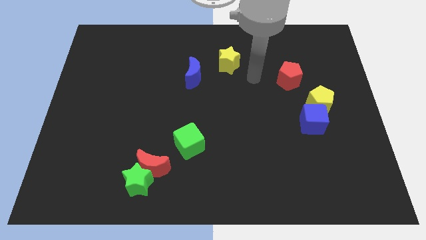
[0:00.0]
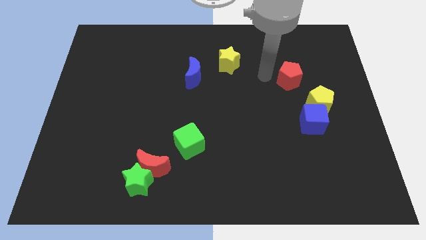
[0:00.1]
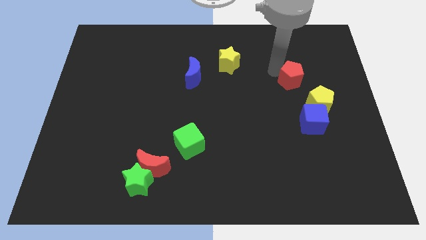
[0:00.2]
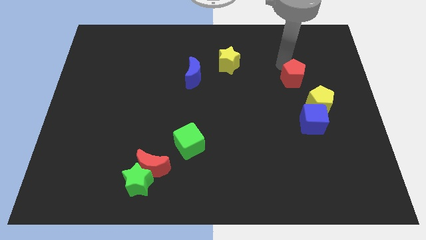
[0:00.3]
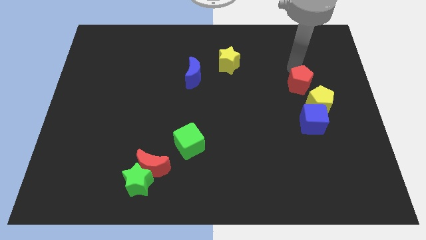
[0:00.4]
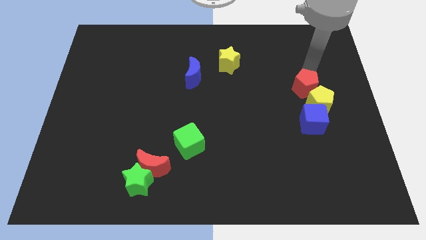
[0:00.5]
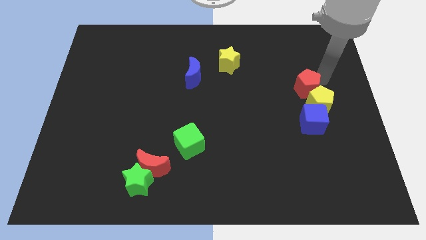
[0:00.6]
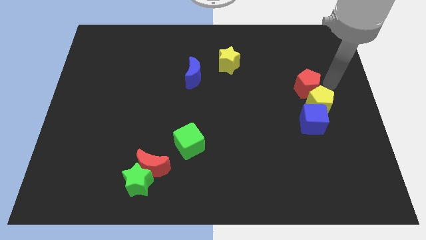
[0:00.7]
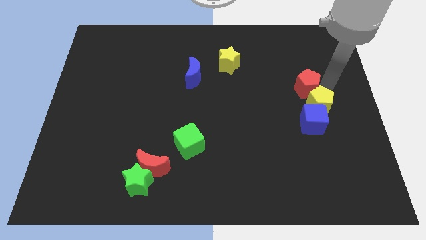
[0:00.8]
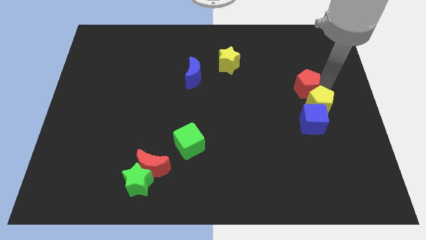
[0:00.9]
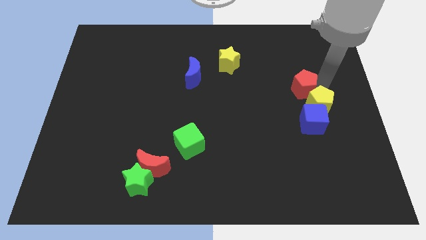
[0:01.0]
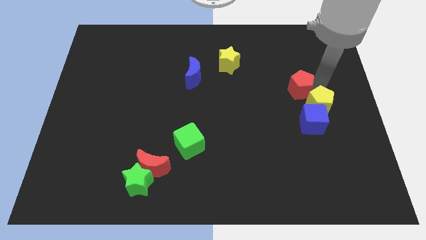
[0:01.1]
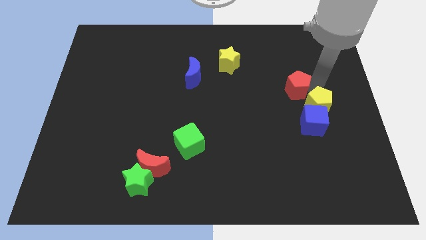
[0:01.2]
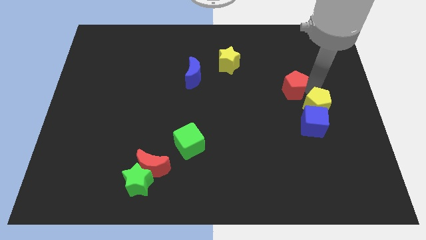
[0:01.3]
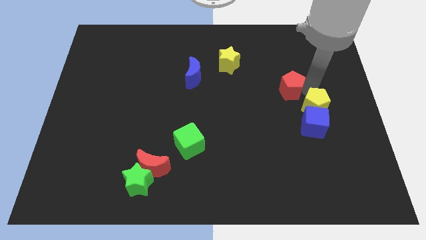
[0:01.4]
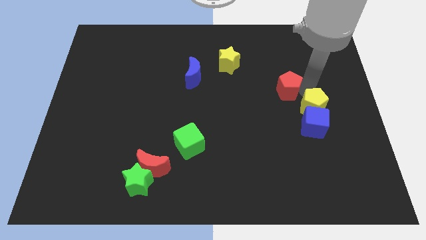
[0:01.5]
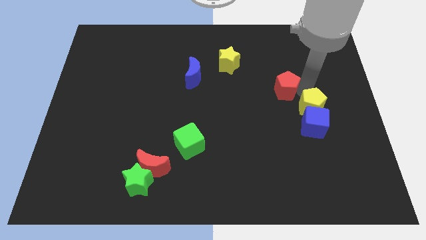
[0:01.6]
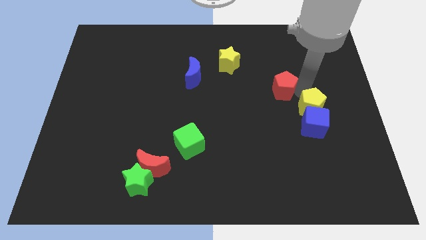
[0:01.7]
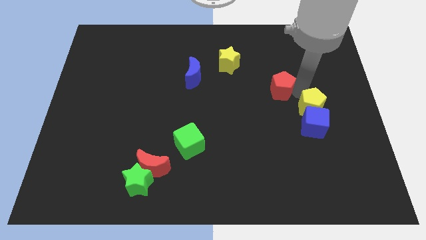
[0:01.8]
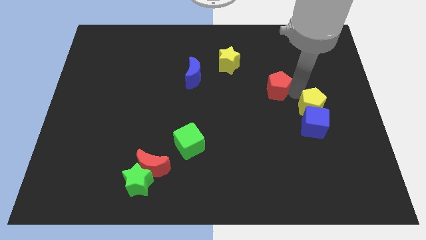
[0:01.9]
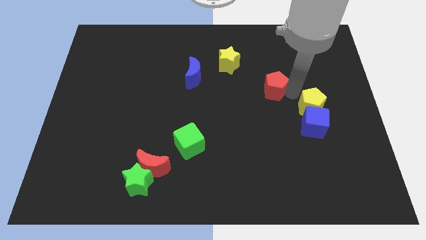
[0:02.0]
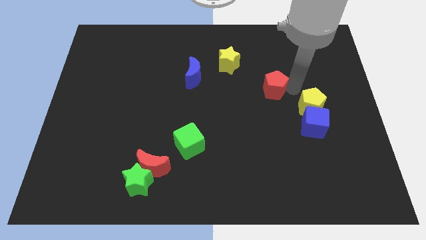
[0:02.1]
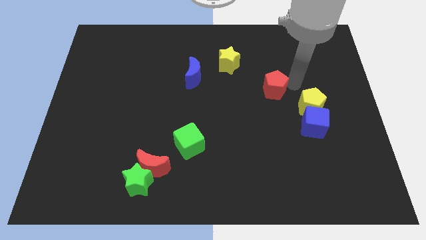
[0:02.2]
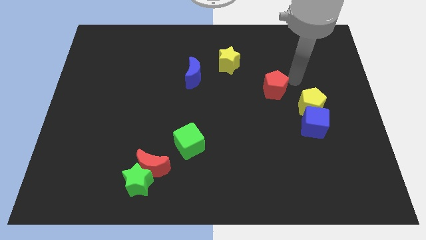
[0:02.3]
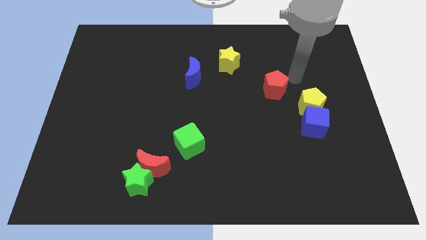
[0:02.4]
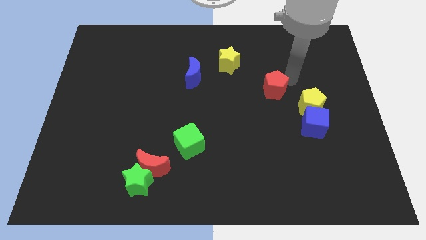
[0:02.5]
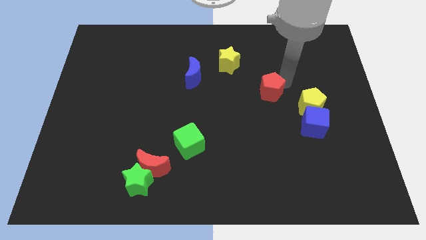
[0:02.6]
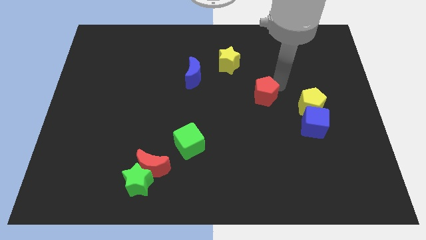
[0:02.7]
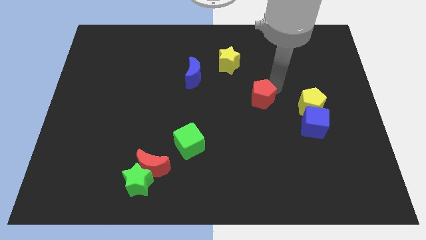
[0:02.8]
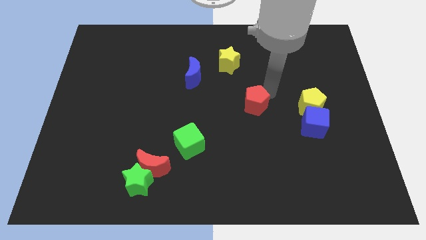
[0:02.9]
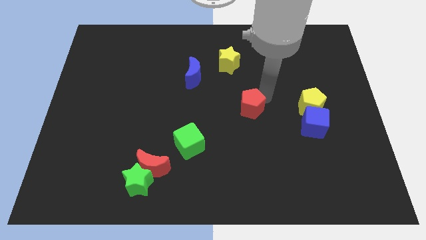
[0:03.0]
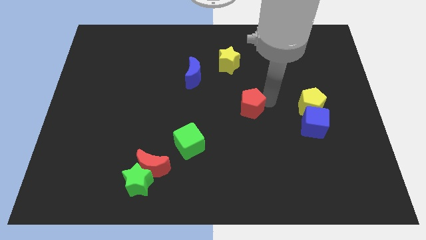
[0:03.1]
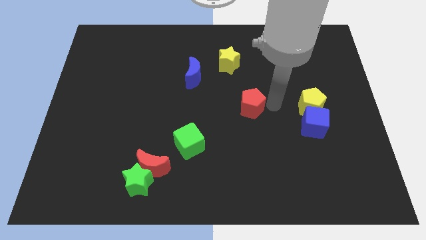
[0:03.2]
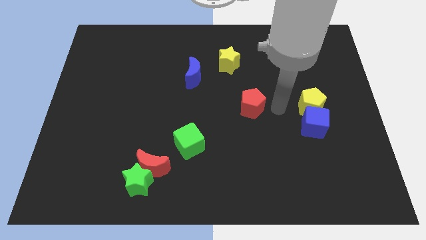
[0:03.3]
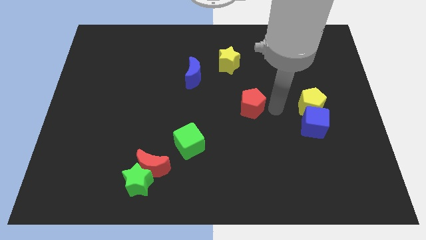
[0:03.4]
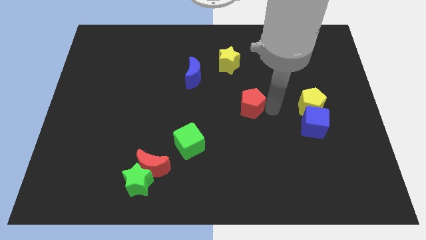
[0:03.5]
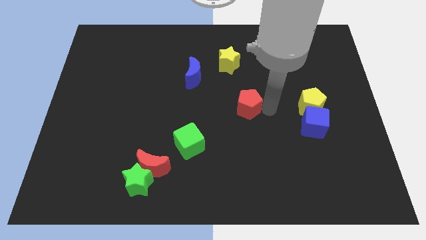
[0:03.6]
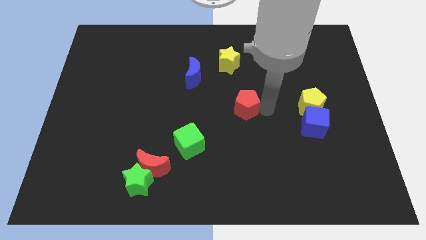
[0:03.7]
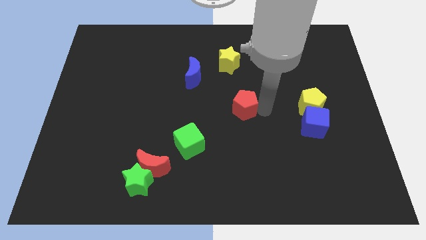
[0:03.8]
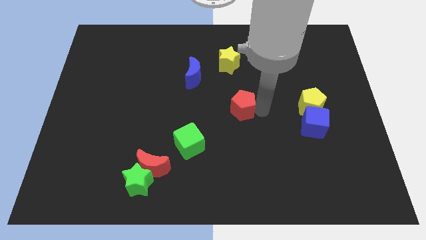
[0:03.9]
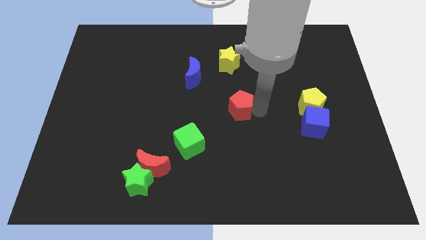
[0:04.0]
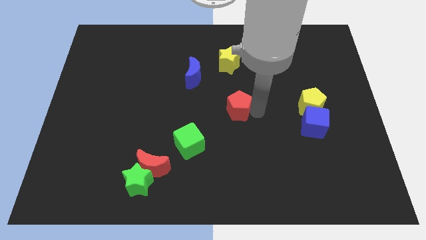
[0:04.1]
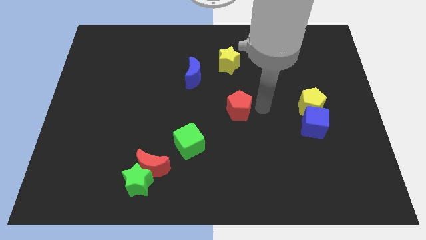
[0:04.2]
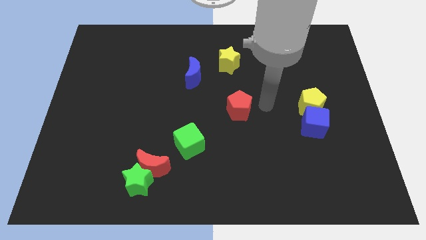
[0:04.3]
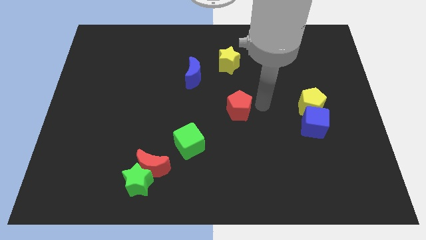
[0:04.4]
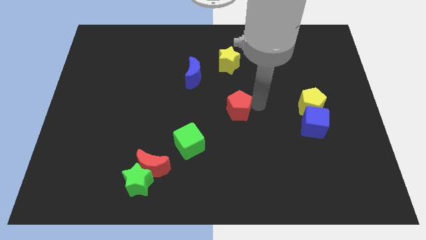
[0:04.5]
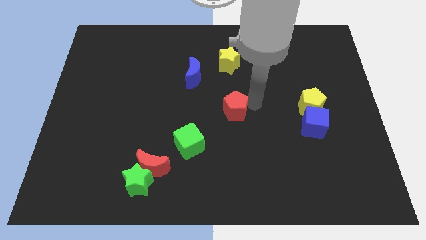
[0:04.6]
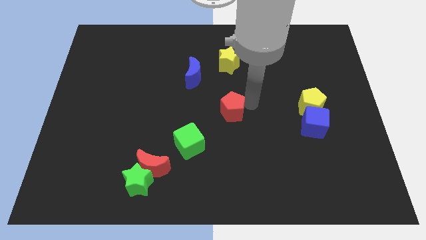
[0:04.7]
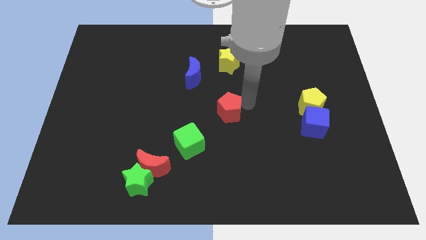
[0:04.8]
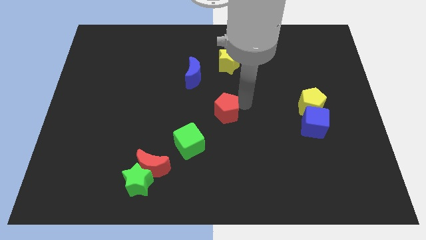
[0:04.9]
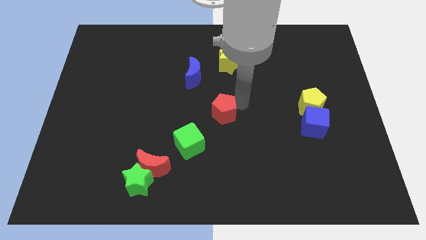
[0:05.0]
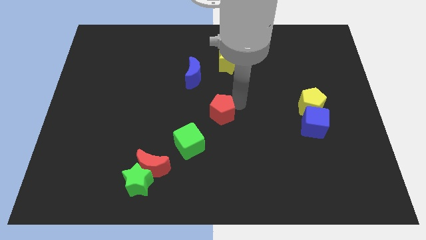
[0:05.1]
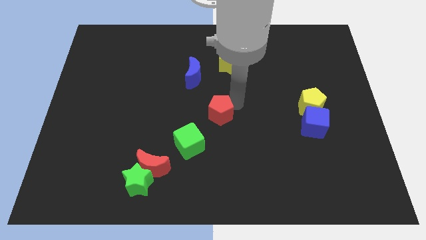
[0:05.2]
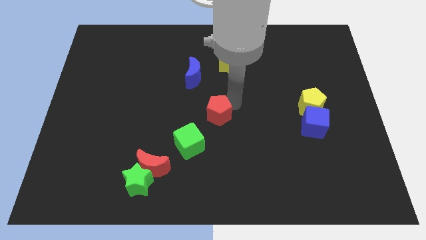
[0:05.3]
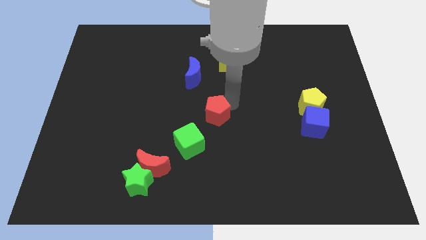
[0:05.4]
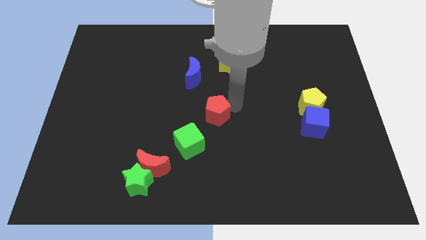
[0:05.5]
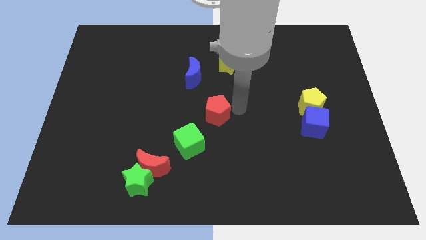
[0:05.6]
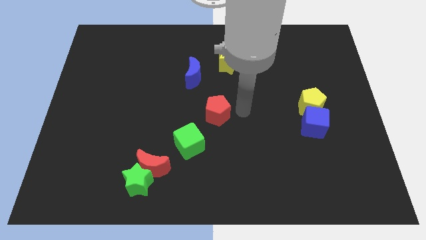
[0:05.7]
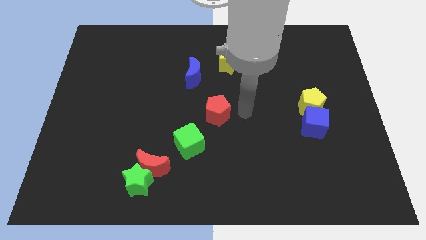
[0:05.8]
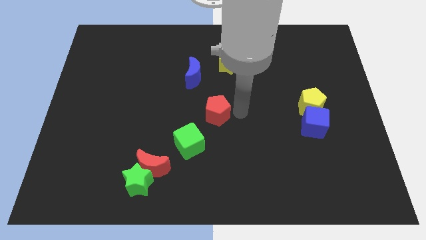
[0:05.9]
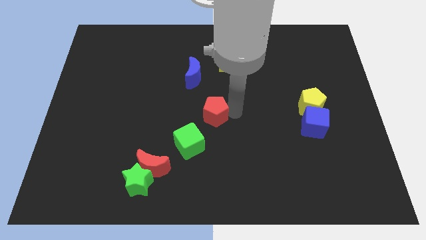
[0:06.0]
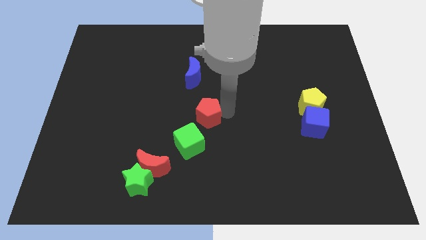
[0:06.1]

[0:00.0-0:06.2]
slide the red pentagon downwards and to the left

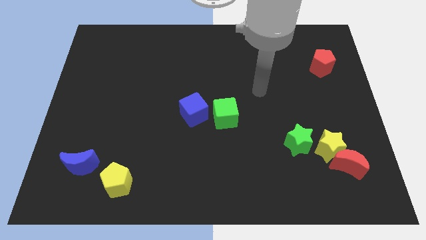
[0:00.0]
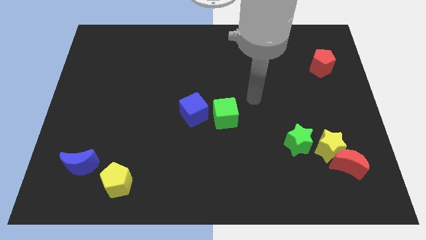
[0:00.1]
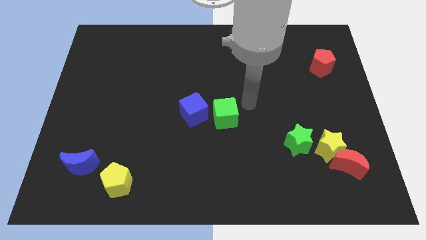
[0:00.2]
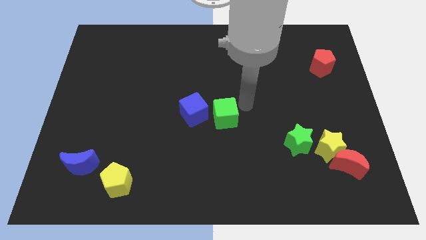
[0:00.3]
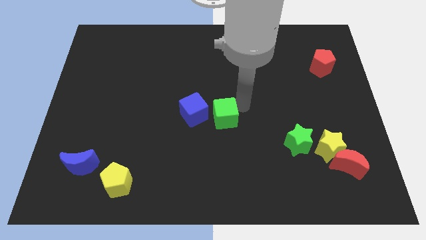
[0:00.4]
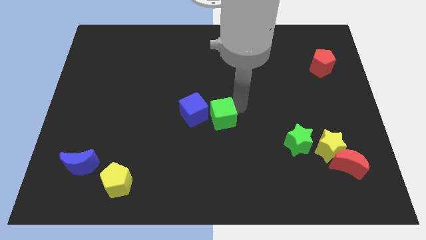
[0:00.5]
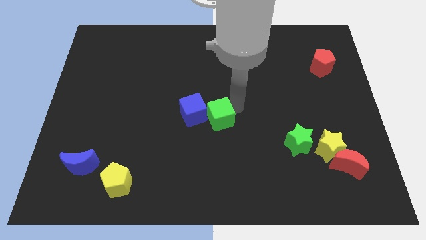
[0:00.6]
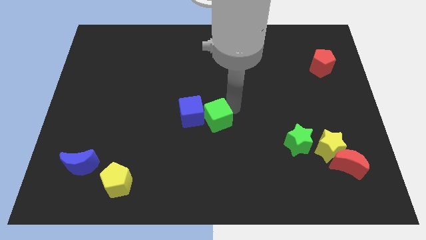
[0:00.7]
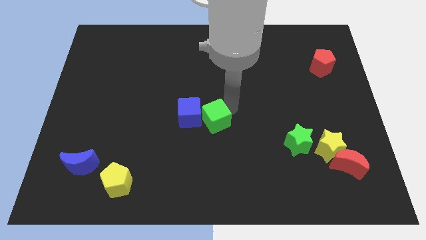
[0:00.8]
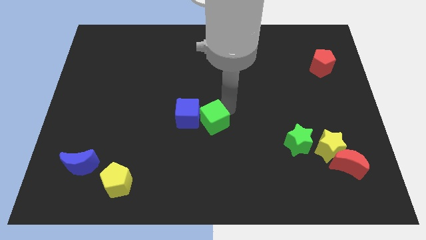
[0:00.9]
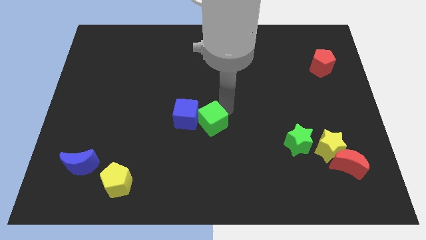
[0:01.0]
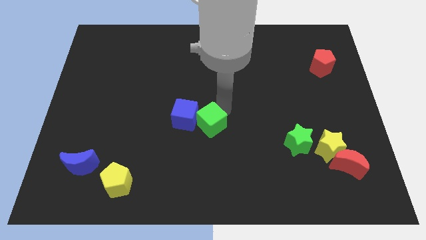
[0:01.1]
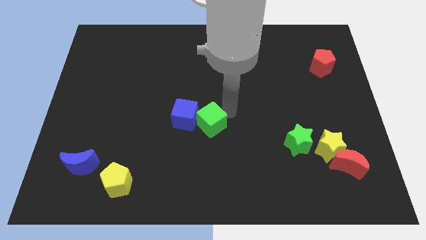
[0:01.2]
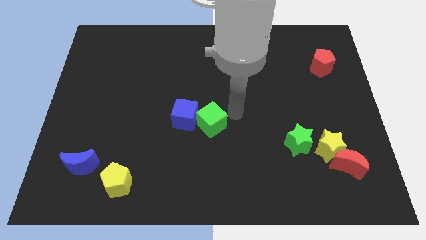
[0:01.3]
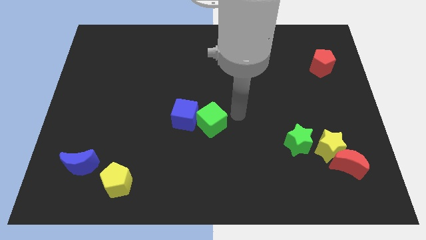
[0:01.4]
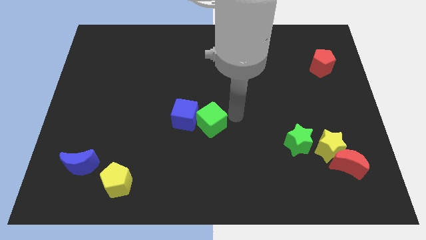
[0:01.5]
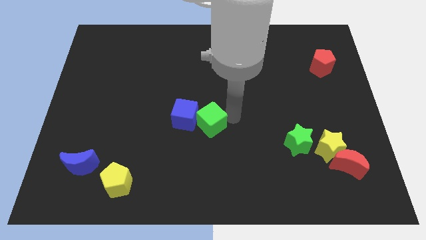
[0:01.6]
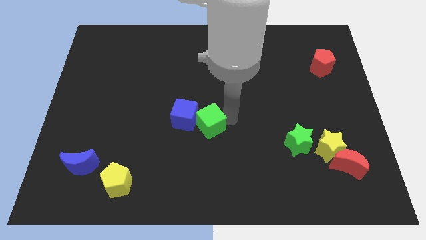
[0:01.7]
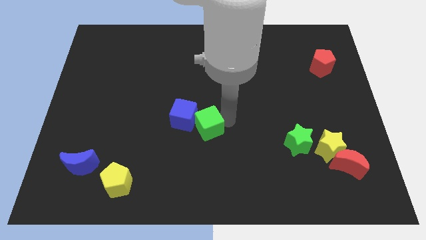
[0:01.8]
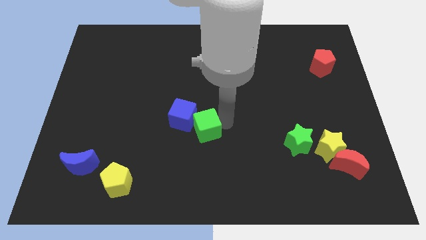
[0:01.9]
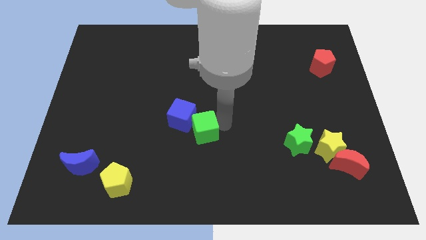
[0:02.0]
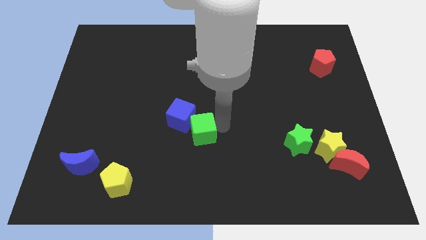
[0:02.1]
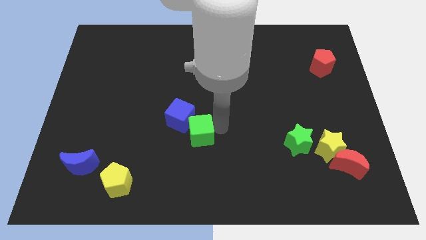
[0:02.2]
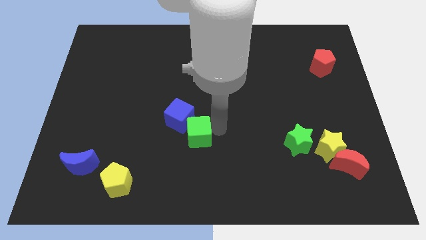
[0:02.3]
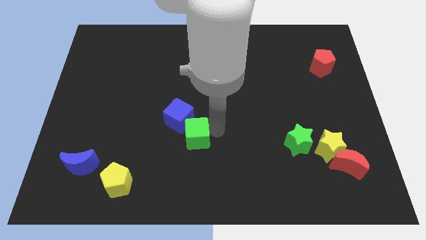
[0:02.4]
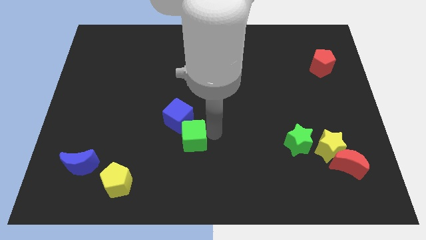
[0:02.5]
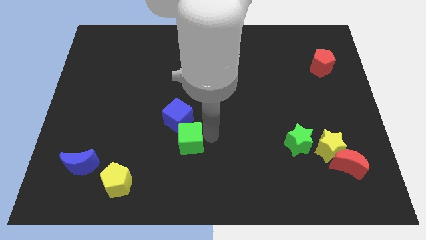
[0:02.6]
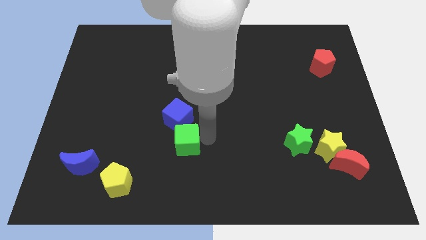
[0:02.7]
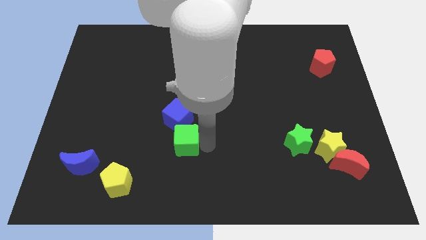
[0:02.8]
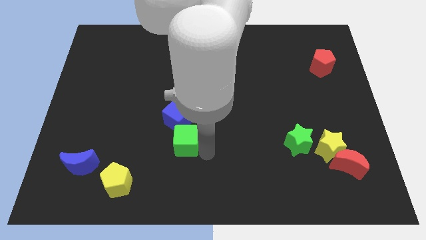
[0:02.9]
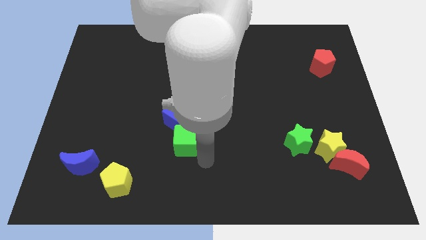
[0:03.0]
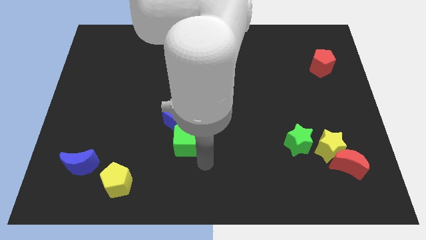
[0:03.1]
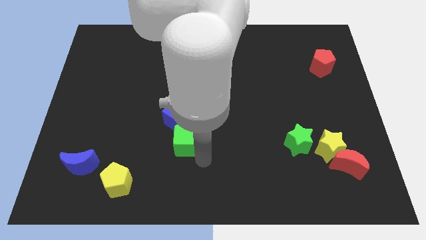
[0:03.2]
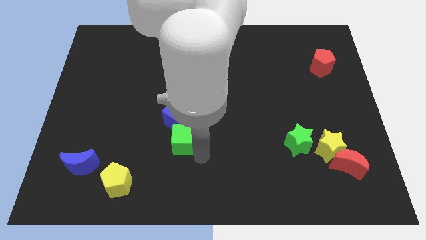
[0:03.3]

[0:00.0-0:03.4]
push the green cube to the left a bit
